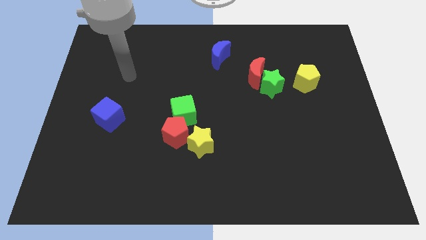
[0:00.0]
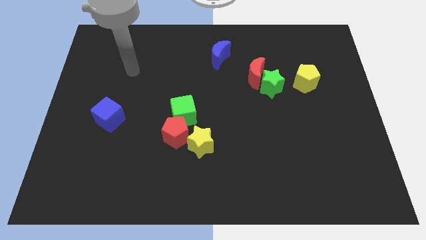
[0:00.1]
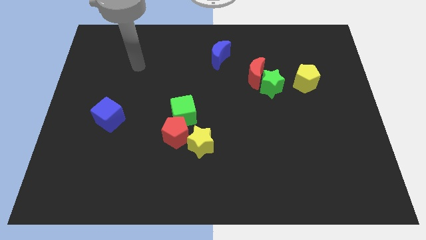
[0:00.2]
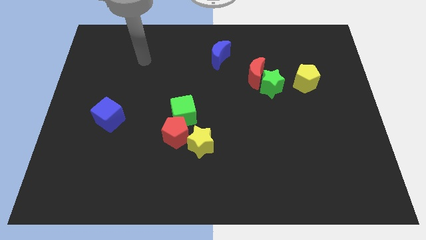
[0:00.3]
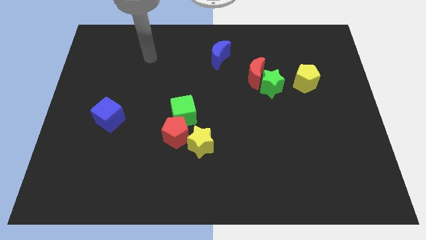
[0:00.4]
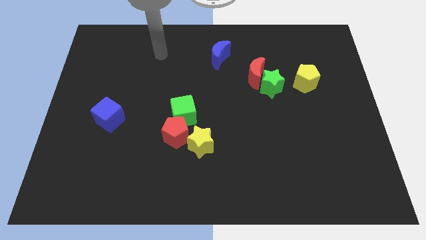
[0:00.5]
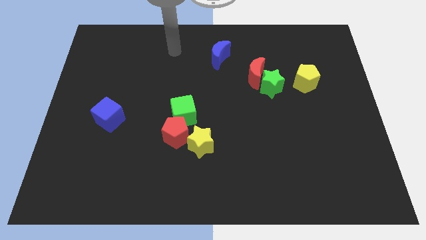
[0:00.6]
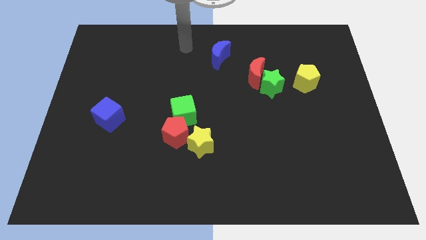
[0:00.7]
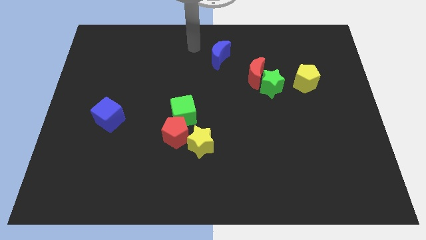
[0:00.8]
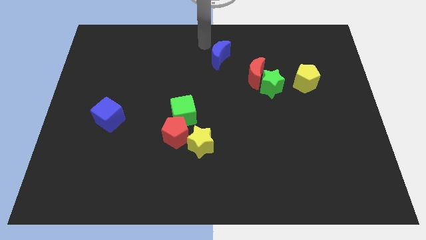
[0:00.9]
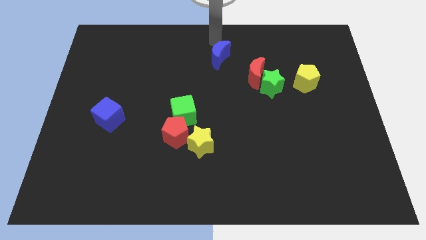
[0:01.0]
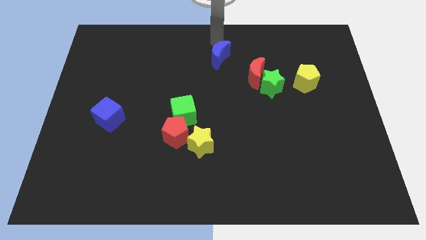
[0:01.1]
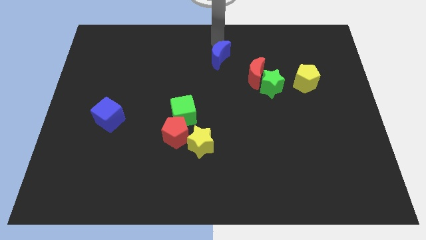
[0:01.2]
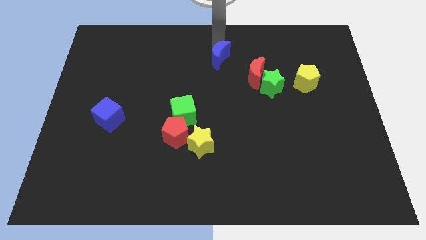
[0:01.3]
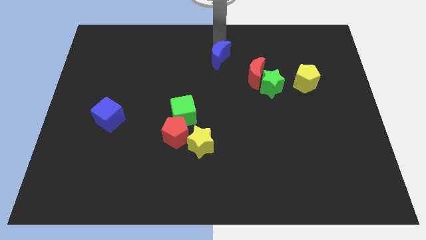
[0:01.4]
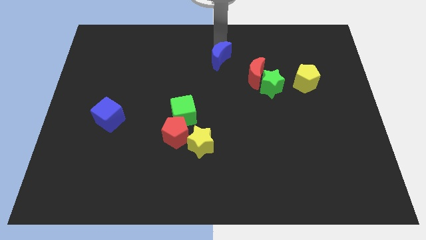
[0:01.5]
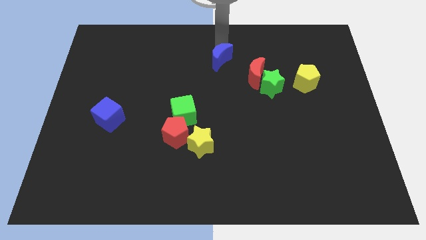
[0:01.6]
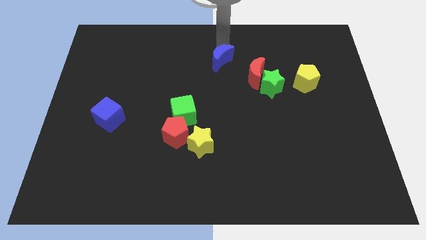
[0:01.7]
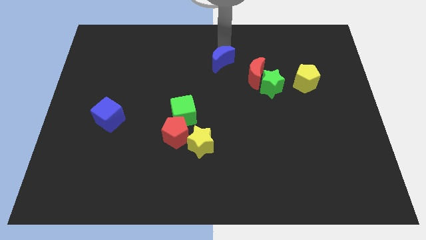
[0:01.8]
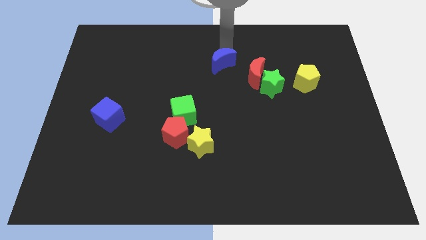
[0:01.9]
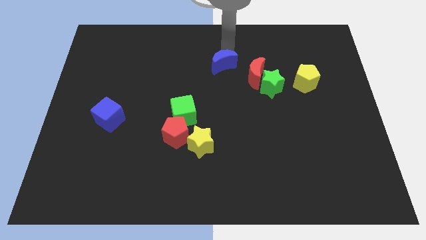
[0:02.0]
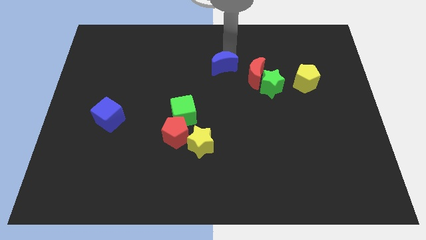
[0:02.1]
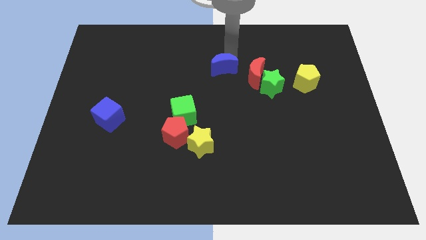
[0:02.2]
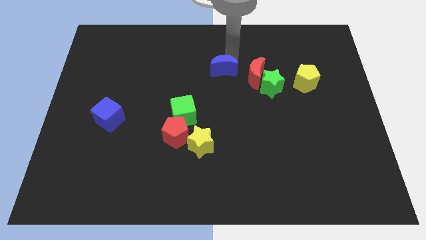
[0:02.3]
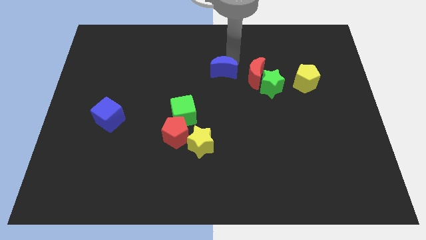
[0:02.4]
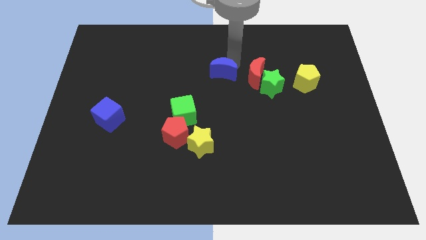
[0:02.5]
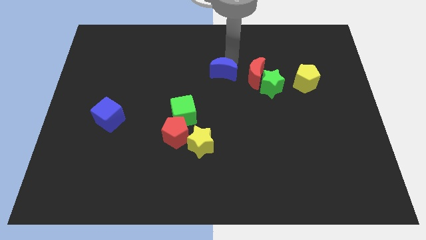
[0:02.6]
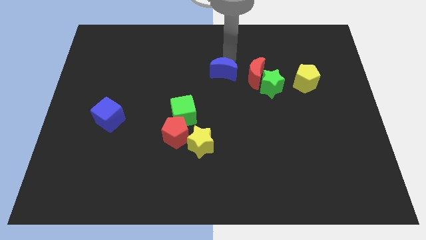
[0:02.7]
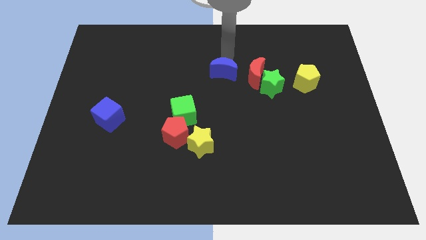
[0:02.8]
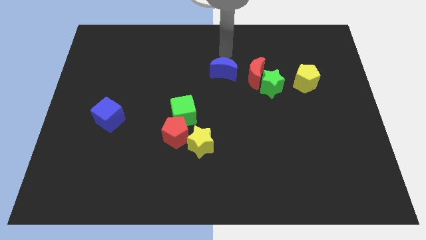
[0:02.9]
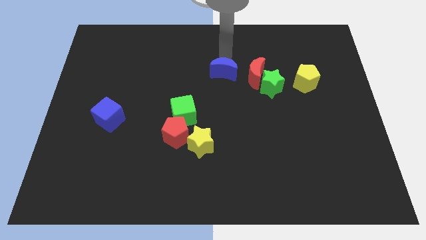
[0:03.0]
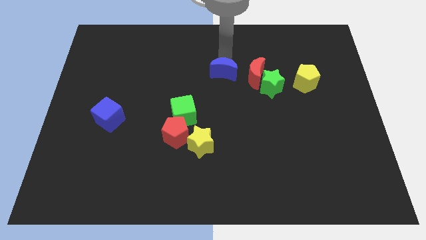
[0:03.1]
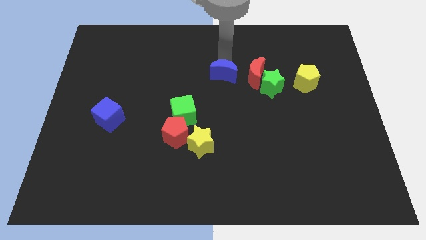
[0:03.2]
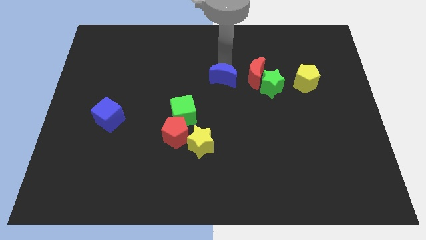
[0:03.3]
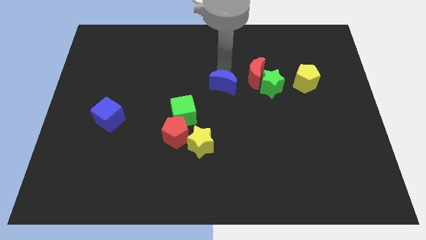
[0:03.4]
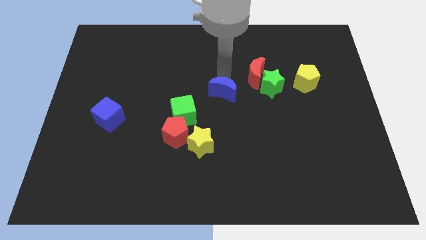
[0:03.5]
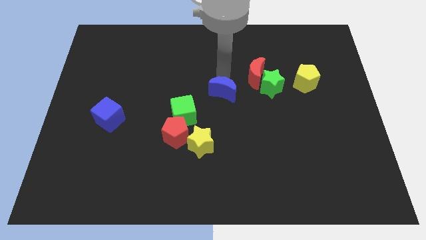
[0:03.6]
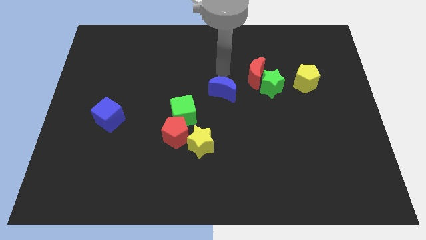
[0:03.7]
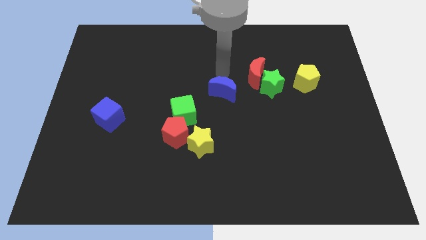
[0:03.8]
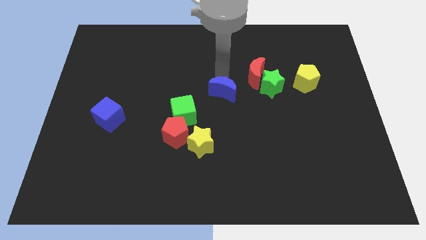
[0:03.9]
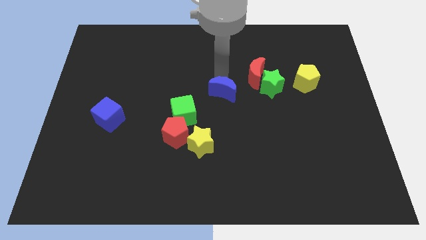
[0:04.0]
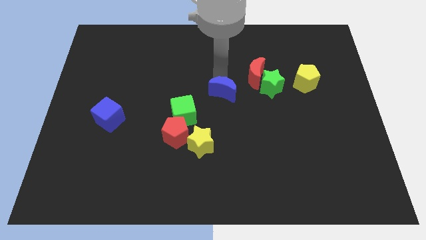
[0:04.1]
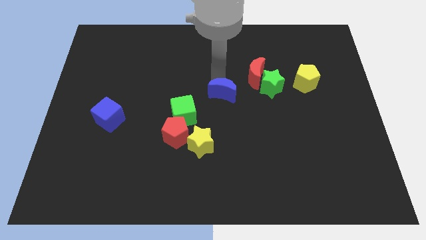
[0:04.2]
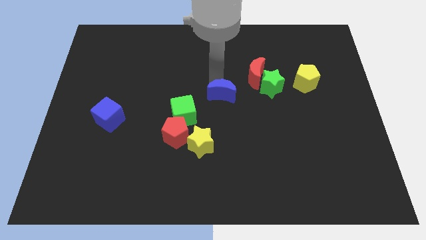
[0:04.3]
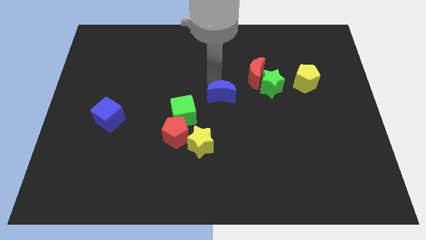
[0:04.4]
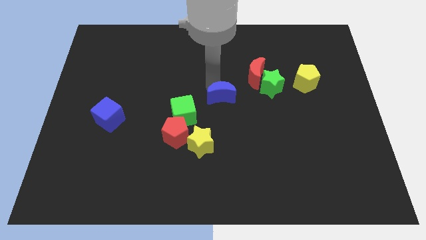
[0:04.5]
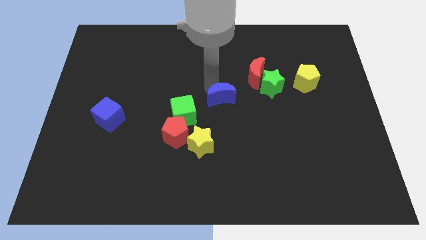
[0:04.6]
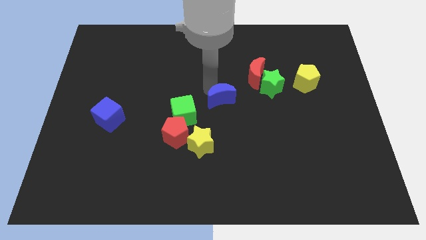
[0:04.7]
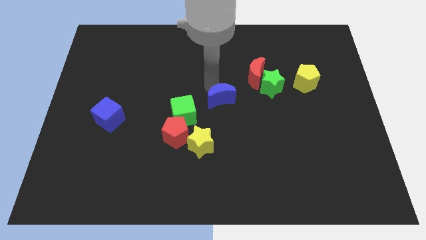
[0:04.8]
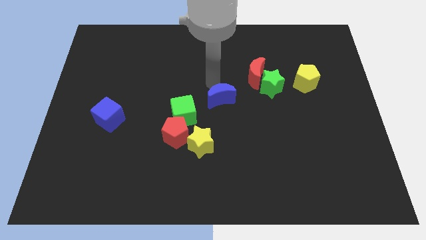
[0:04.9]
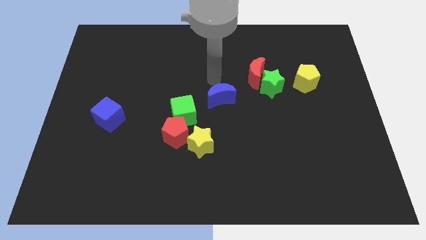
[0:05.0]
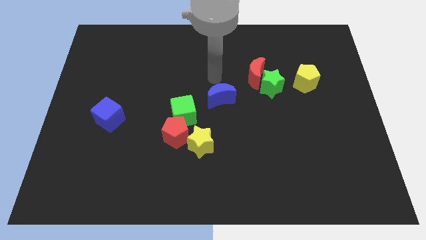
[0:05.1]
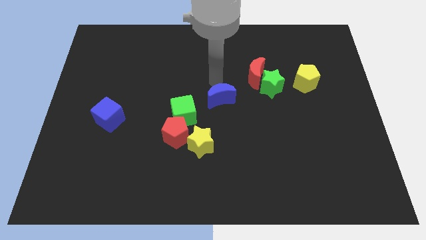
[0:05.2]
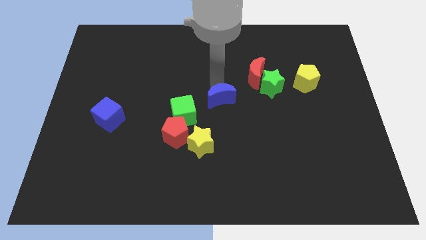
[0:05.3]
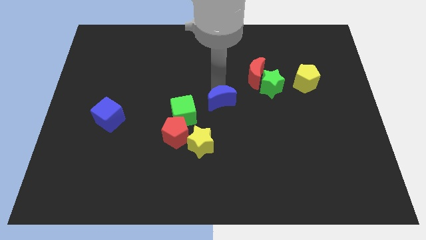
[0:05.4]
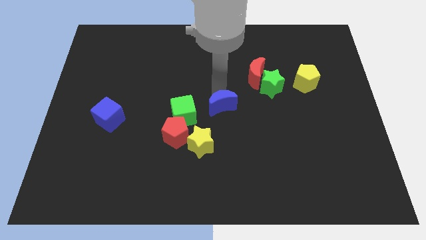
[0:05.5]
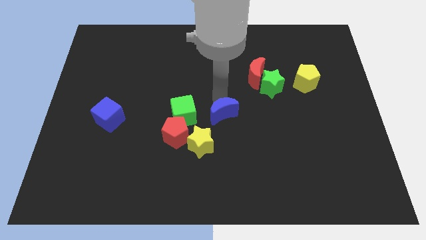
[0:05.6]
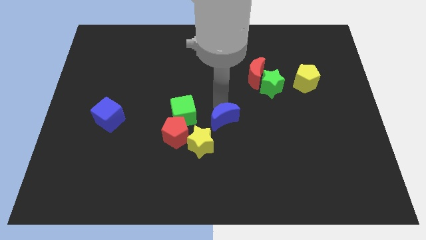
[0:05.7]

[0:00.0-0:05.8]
move the blue moon down

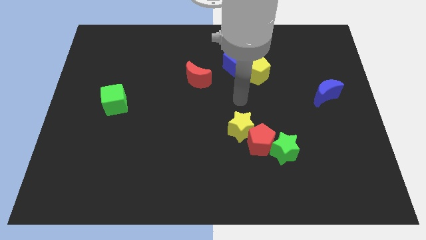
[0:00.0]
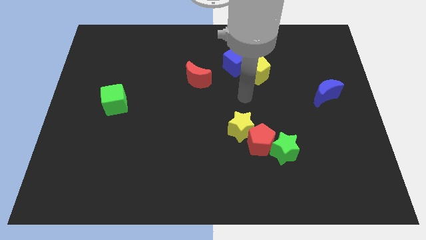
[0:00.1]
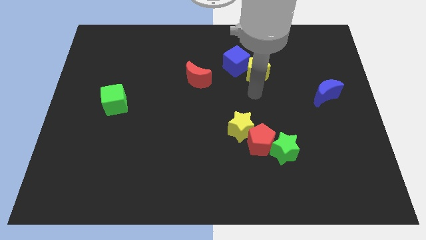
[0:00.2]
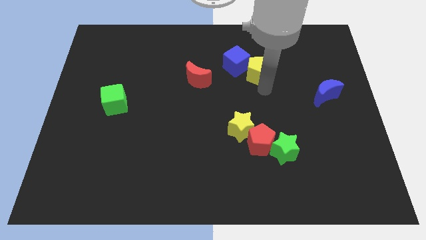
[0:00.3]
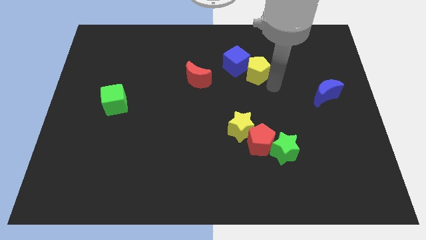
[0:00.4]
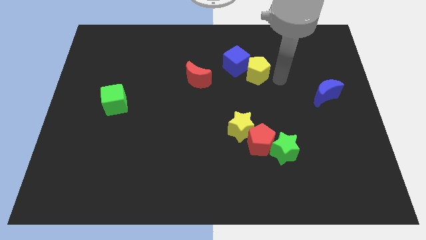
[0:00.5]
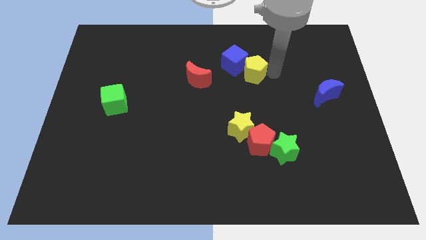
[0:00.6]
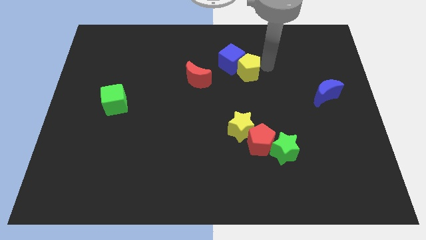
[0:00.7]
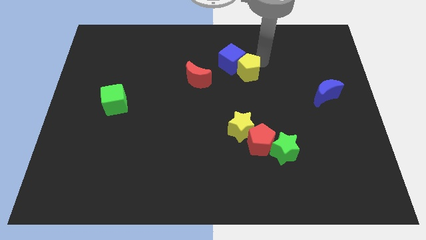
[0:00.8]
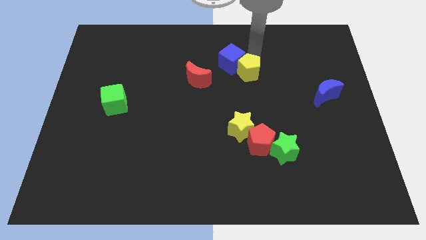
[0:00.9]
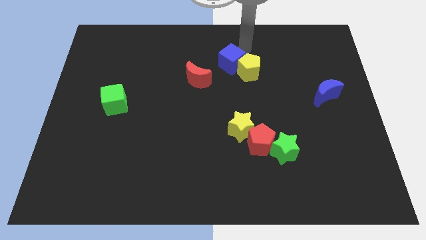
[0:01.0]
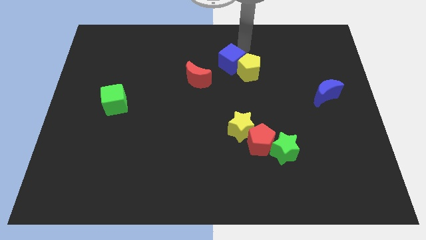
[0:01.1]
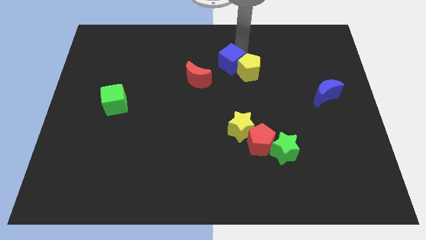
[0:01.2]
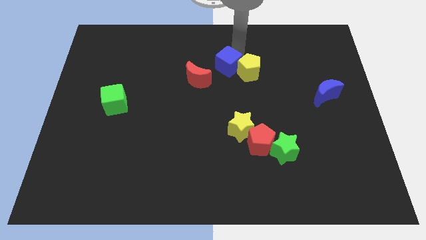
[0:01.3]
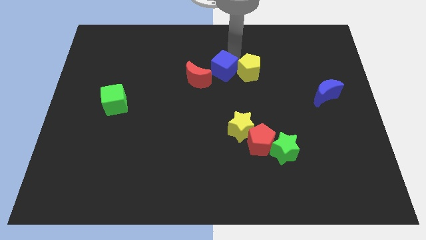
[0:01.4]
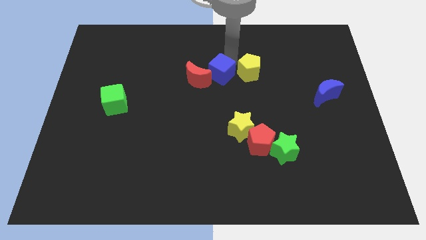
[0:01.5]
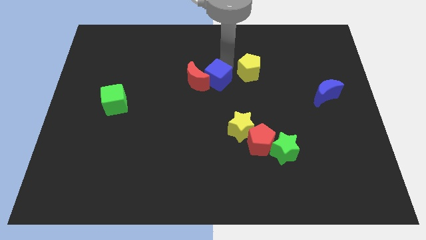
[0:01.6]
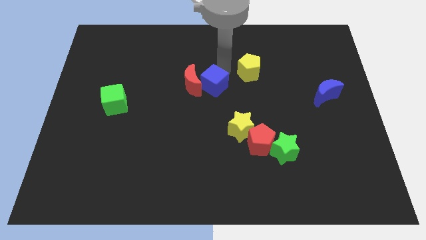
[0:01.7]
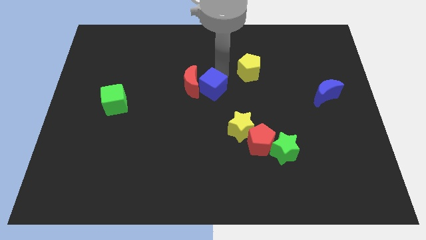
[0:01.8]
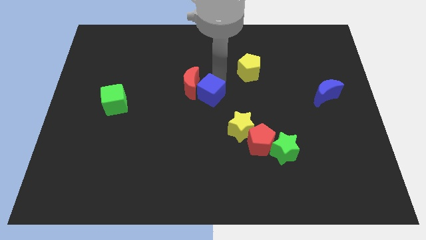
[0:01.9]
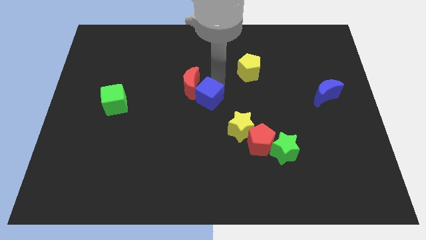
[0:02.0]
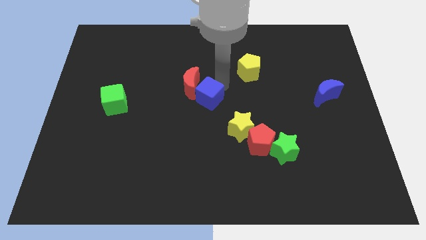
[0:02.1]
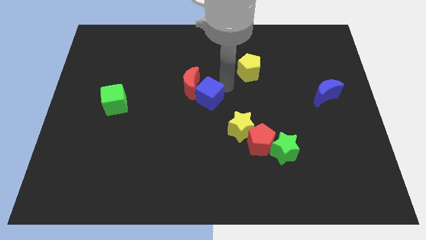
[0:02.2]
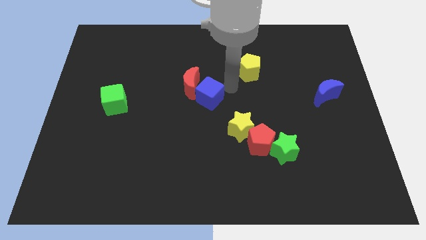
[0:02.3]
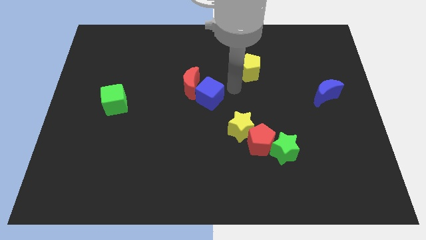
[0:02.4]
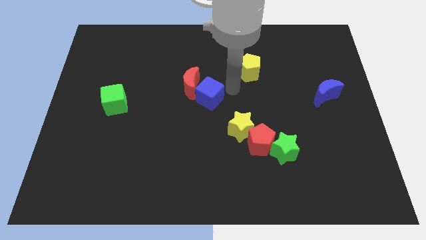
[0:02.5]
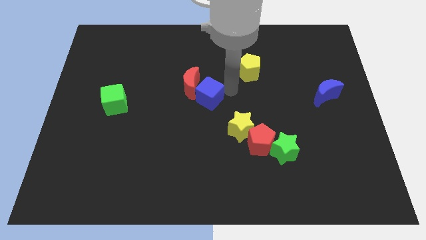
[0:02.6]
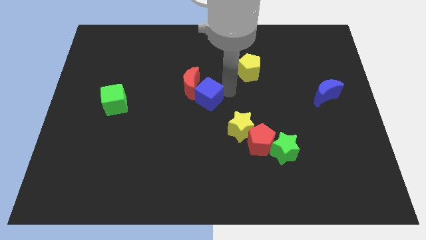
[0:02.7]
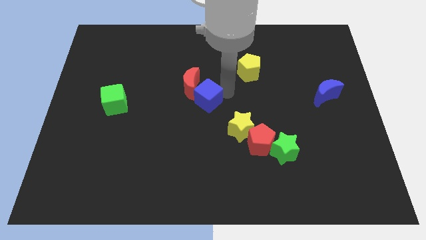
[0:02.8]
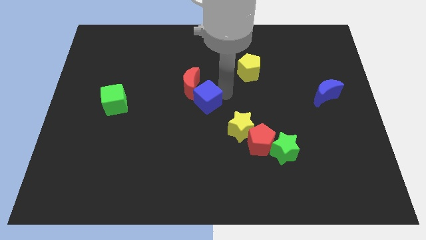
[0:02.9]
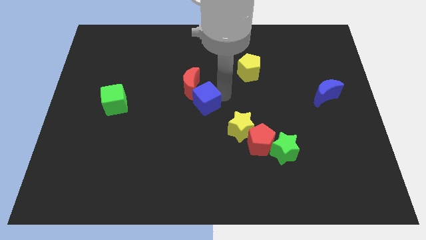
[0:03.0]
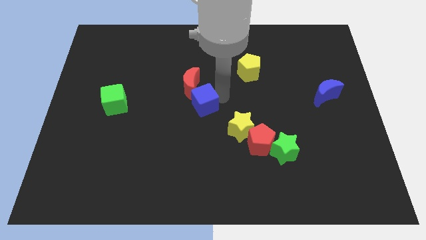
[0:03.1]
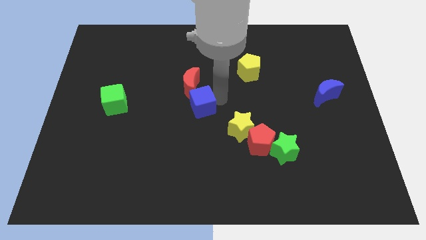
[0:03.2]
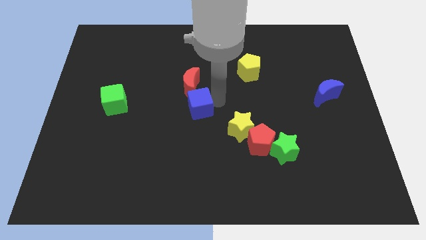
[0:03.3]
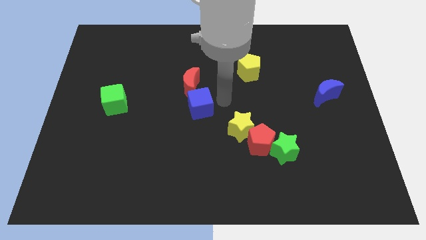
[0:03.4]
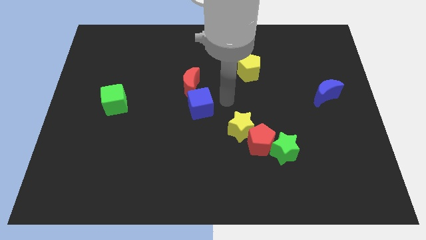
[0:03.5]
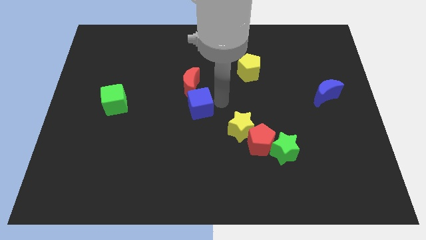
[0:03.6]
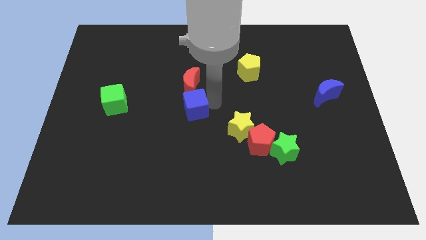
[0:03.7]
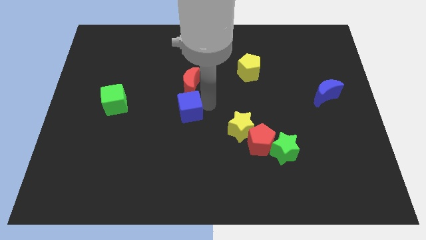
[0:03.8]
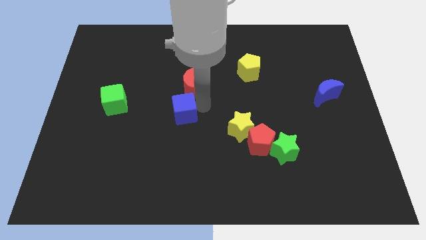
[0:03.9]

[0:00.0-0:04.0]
push the blue cube downwards and then to the left
